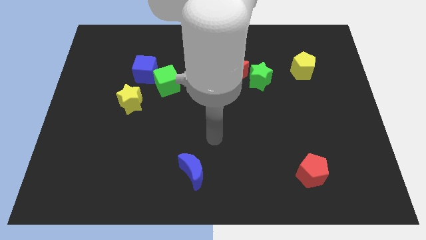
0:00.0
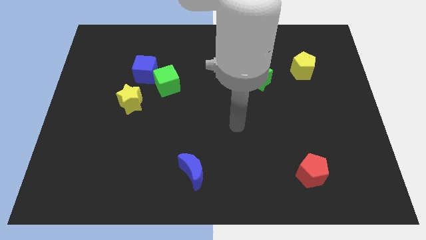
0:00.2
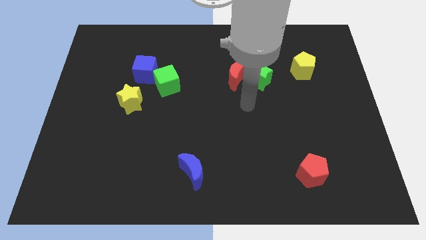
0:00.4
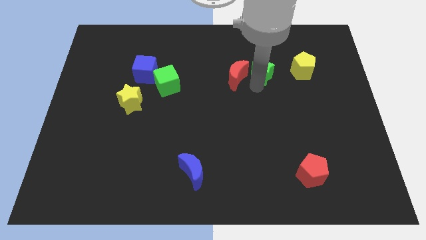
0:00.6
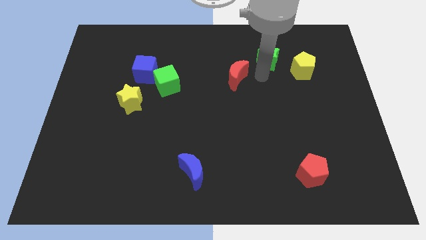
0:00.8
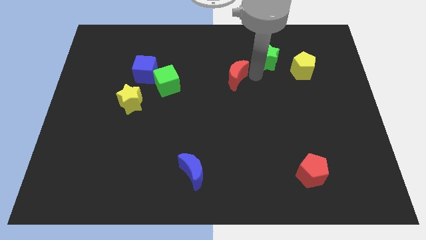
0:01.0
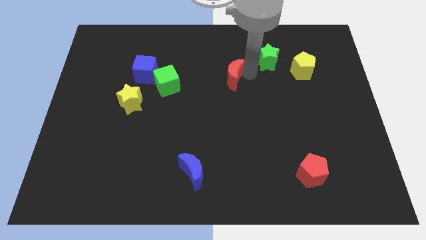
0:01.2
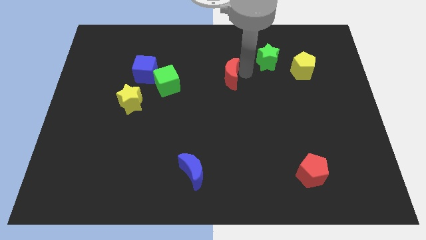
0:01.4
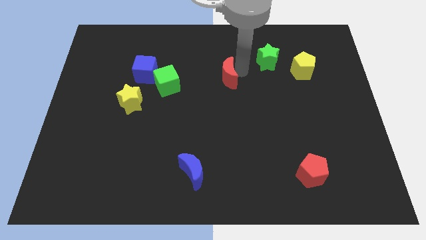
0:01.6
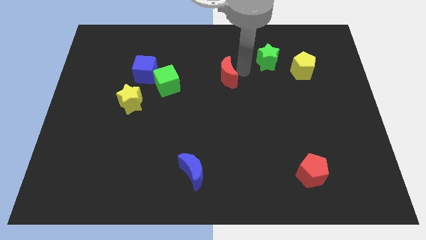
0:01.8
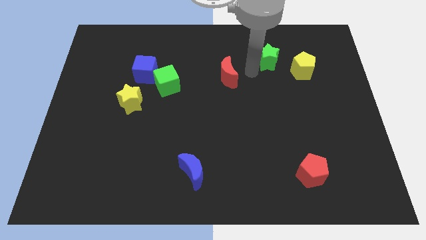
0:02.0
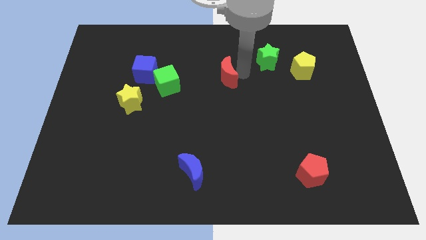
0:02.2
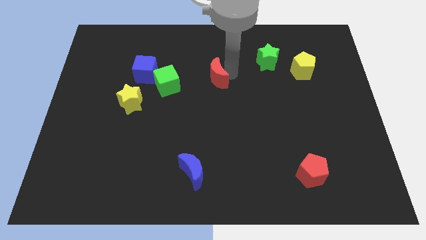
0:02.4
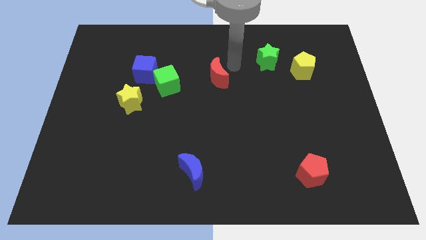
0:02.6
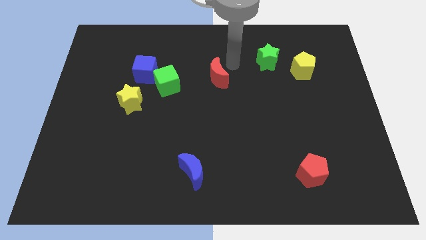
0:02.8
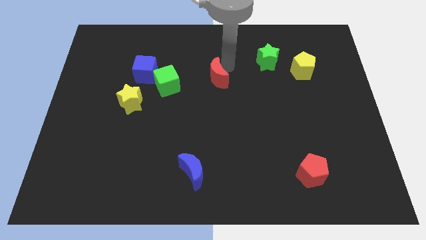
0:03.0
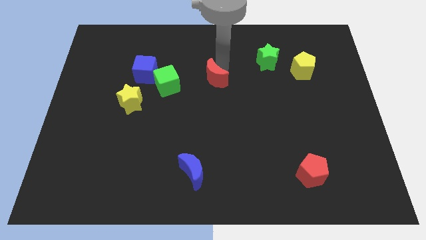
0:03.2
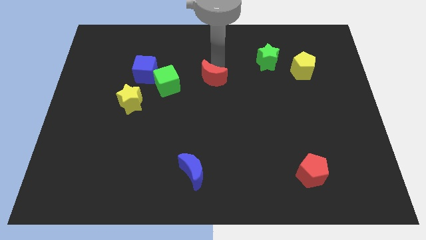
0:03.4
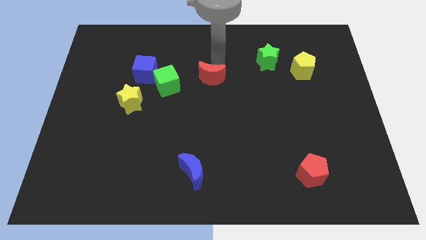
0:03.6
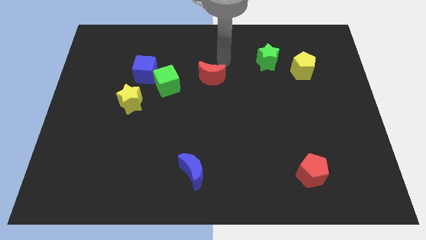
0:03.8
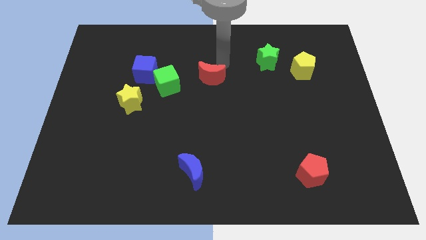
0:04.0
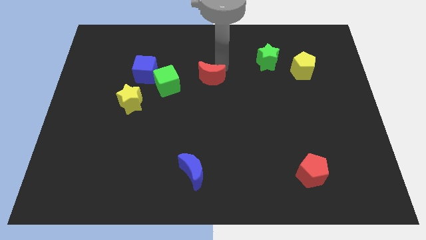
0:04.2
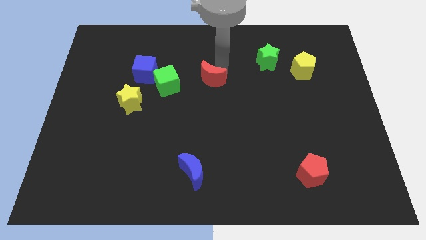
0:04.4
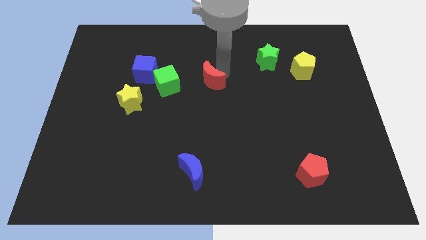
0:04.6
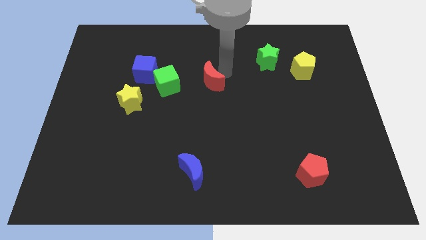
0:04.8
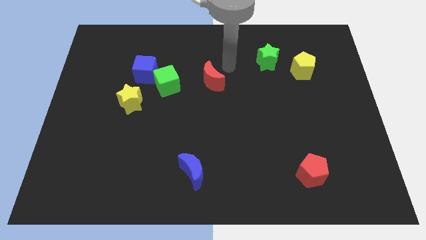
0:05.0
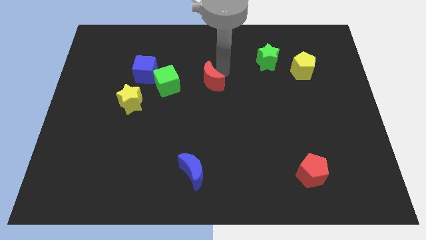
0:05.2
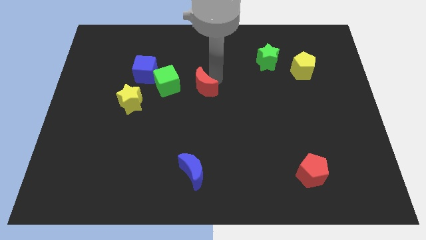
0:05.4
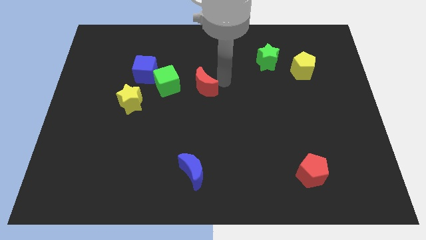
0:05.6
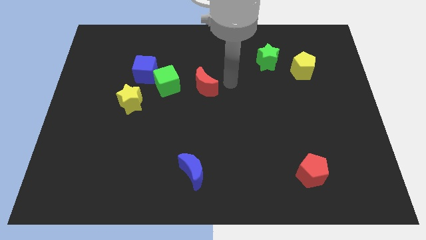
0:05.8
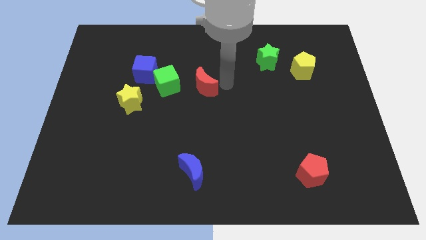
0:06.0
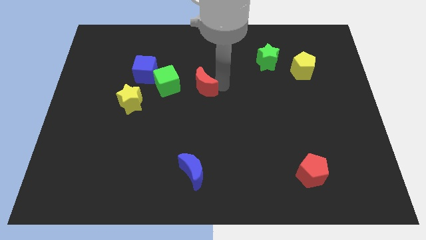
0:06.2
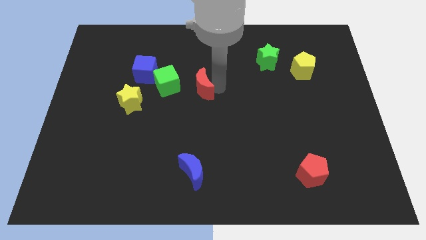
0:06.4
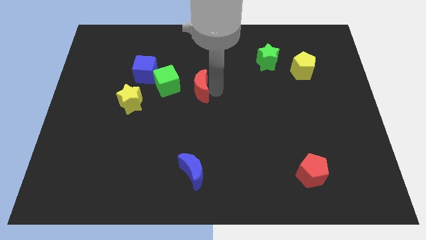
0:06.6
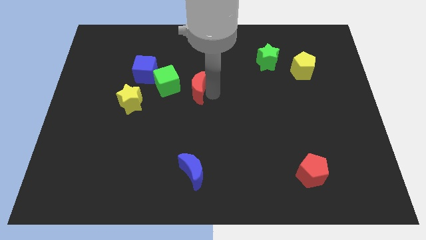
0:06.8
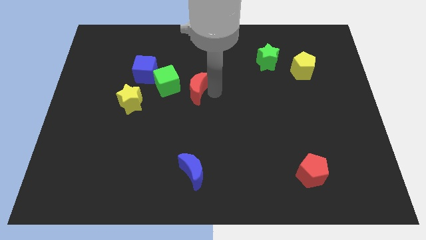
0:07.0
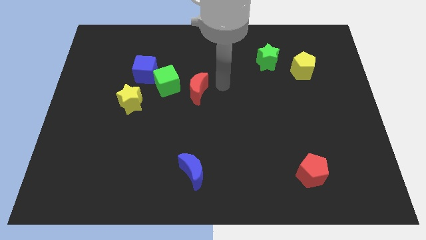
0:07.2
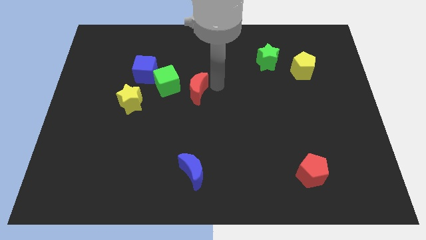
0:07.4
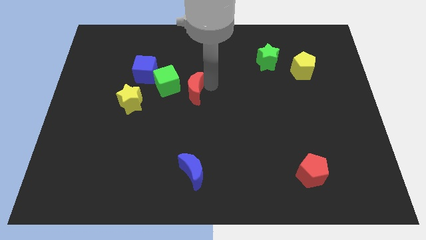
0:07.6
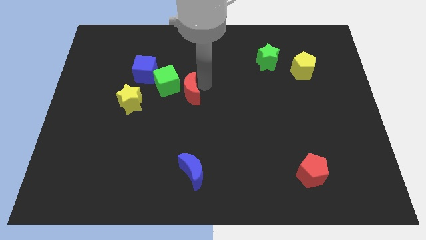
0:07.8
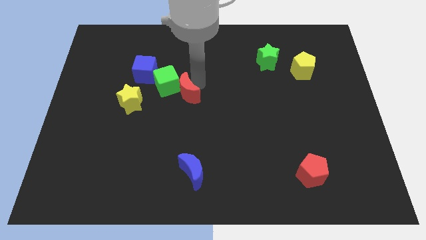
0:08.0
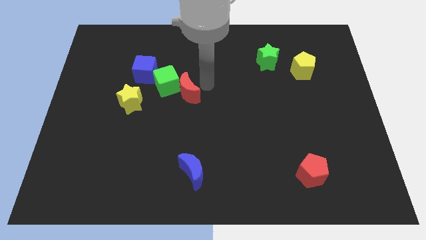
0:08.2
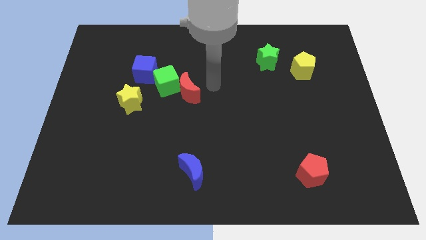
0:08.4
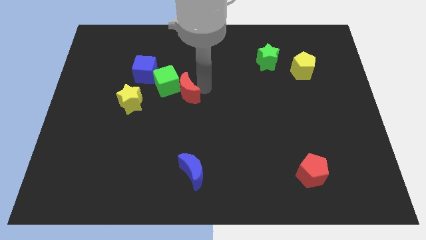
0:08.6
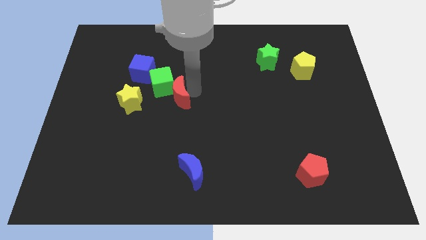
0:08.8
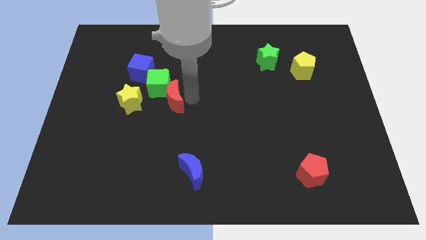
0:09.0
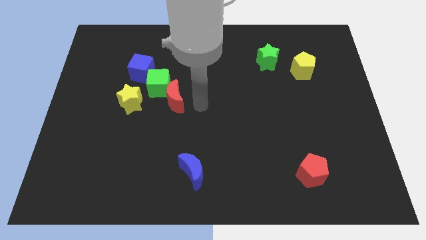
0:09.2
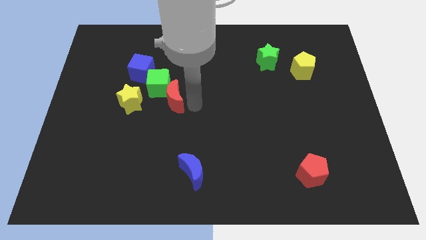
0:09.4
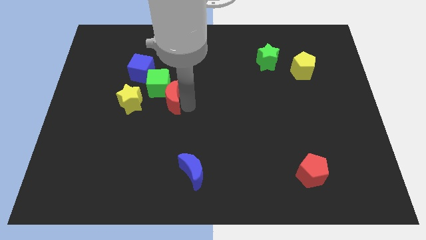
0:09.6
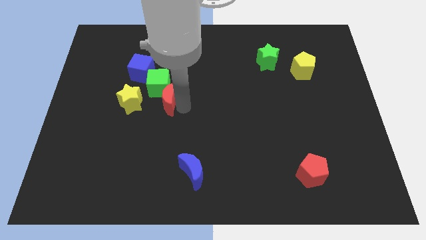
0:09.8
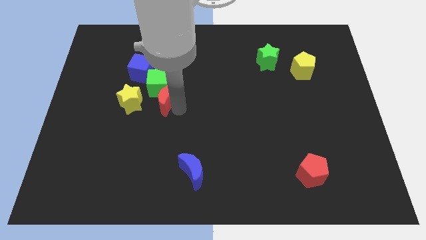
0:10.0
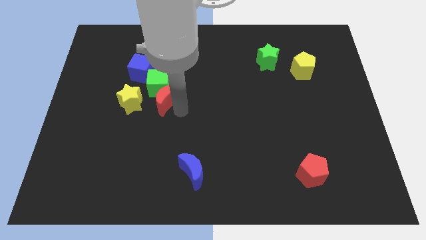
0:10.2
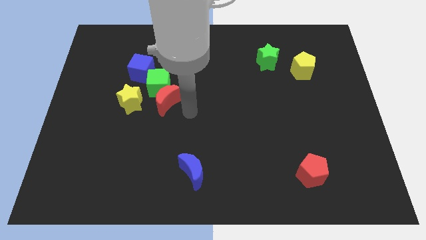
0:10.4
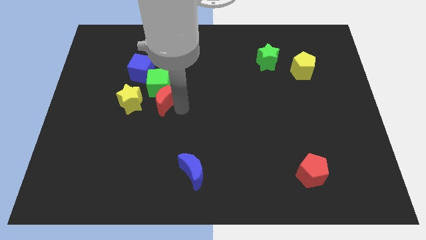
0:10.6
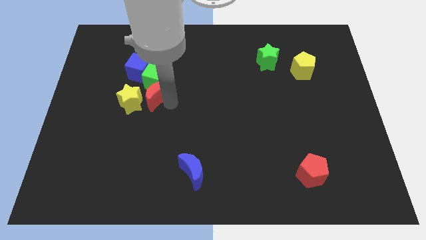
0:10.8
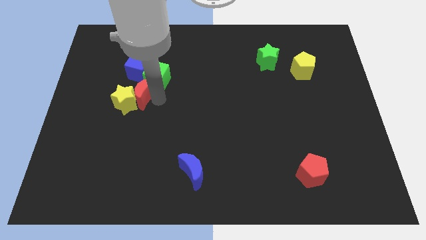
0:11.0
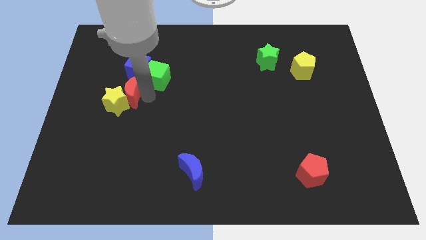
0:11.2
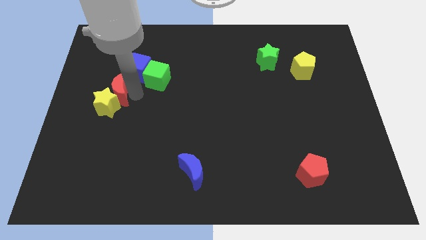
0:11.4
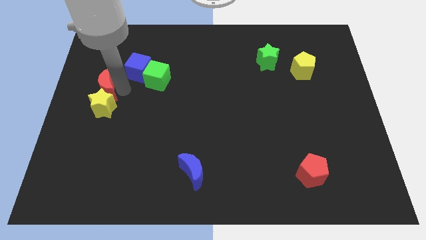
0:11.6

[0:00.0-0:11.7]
slide the red moon to the left side

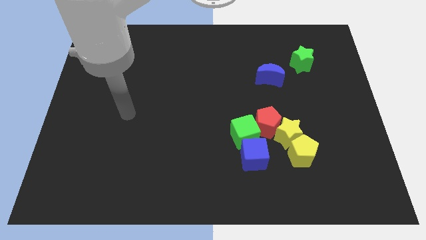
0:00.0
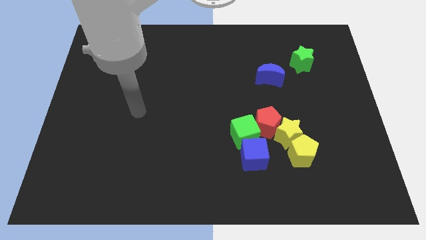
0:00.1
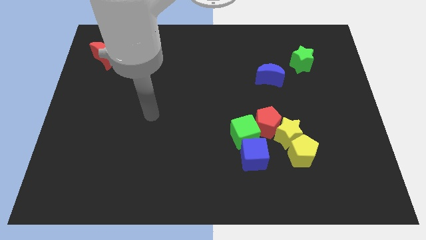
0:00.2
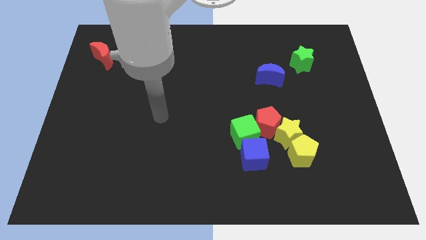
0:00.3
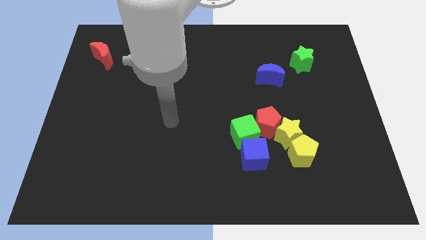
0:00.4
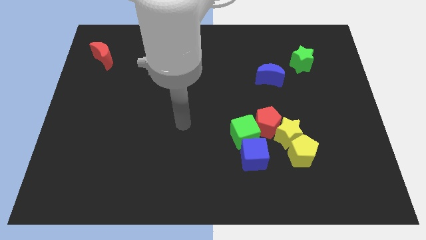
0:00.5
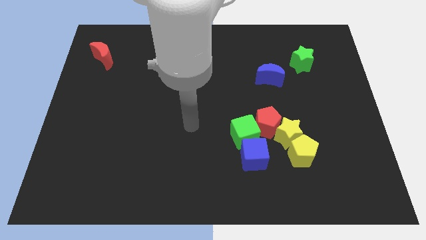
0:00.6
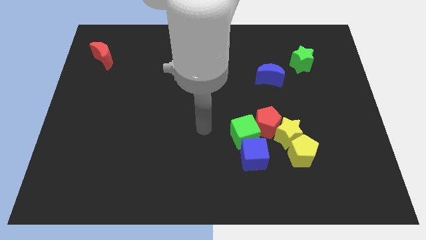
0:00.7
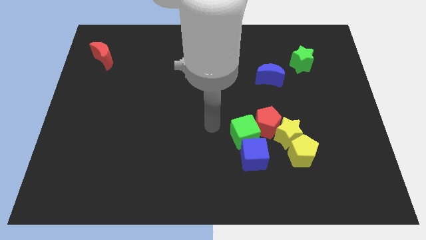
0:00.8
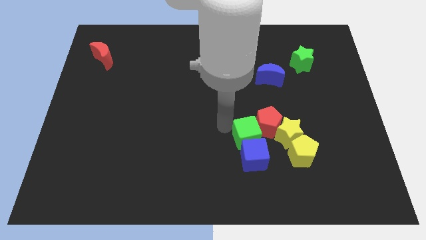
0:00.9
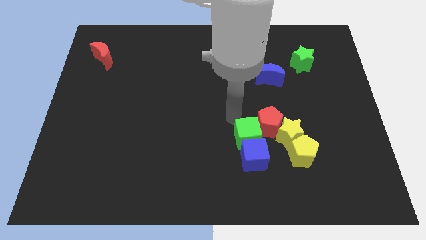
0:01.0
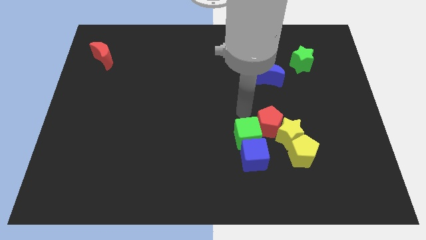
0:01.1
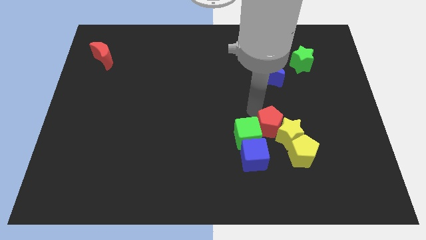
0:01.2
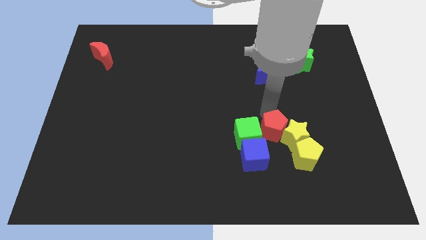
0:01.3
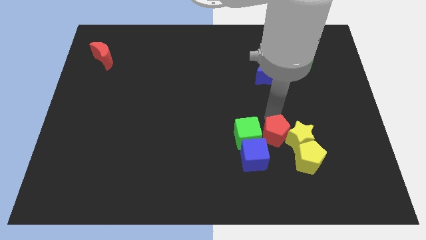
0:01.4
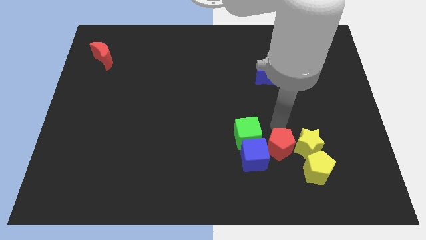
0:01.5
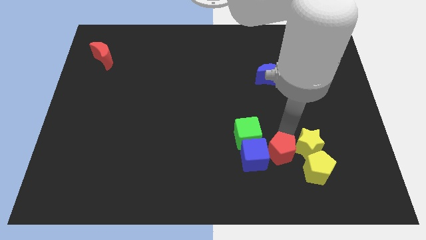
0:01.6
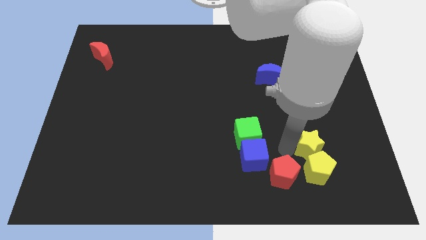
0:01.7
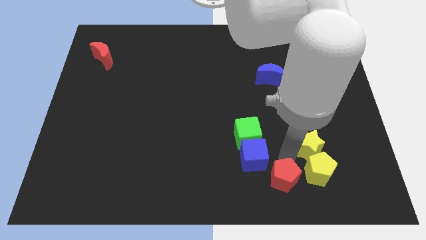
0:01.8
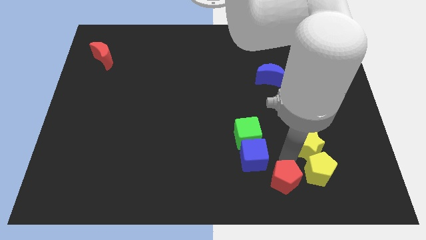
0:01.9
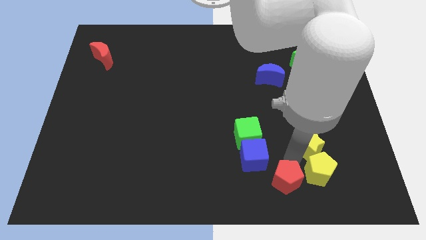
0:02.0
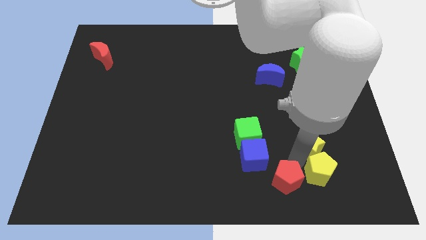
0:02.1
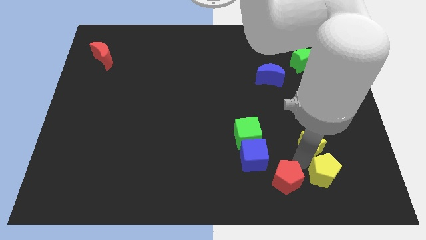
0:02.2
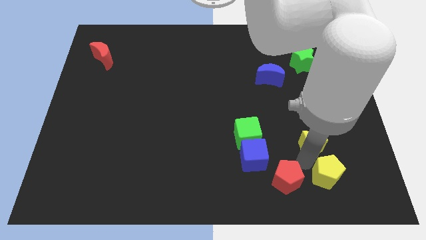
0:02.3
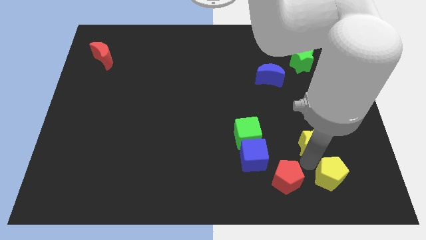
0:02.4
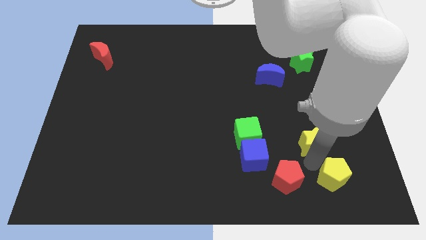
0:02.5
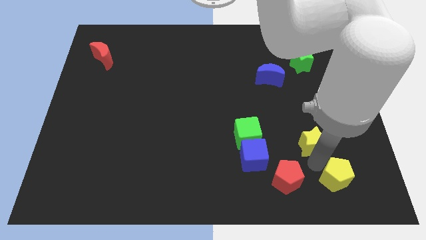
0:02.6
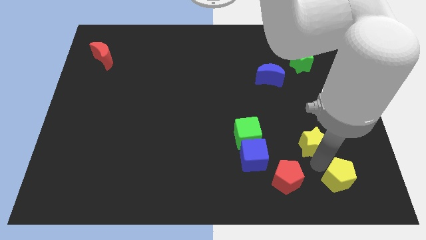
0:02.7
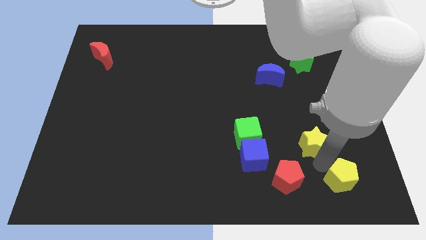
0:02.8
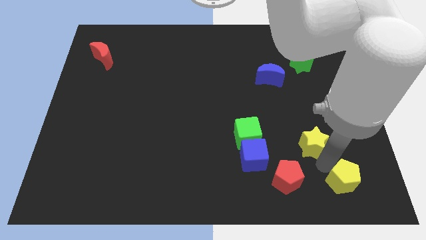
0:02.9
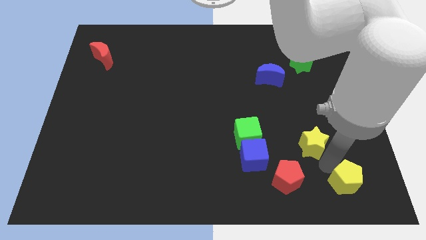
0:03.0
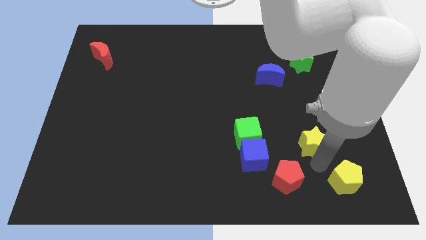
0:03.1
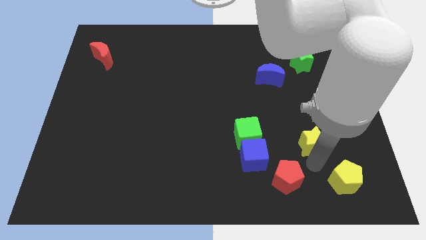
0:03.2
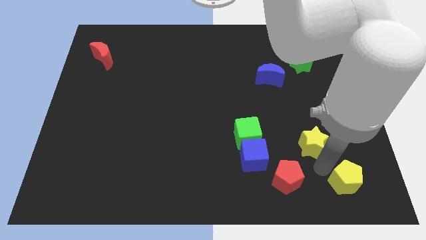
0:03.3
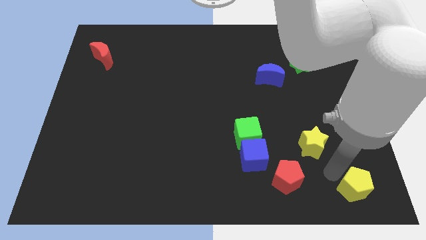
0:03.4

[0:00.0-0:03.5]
move the yellow pentagon to the bottom right corner
